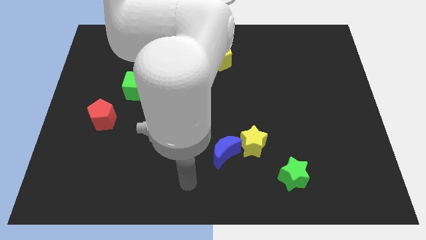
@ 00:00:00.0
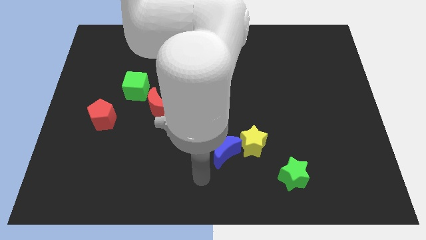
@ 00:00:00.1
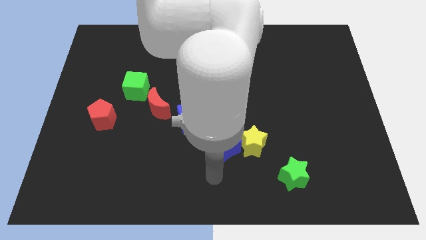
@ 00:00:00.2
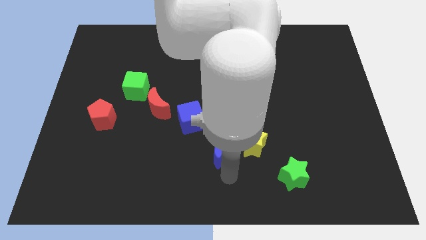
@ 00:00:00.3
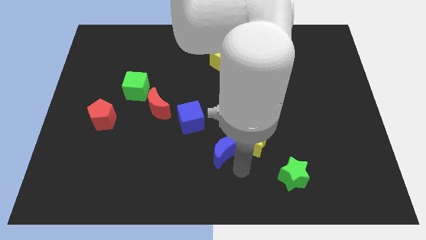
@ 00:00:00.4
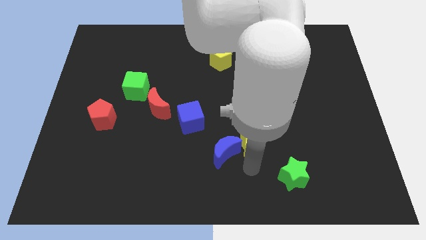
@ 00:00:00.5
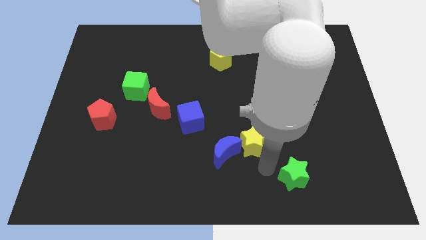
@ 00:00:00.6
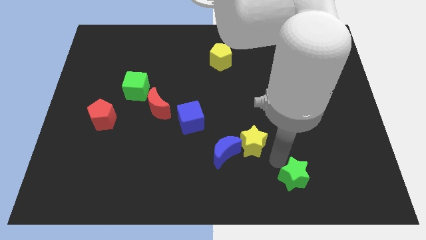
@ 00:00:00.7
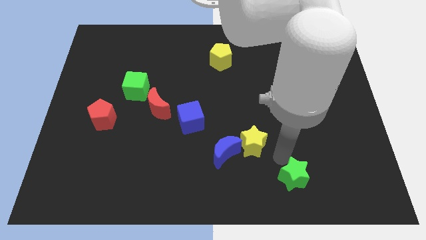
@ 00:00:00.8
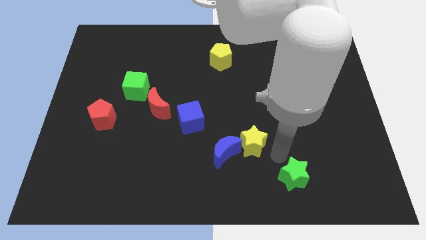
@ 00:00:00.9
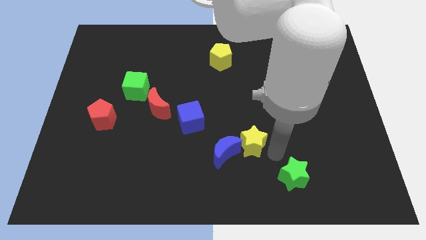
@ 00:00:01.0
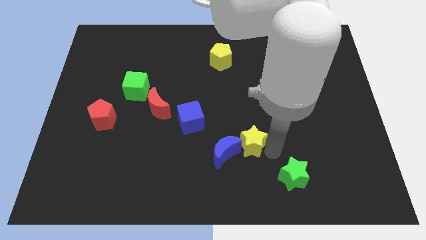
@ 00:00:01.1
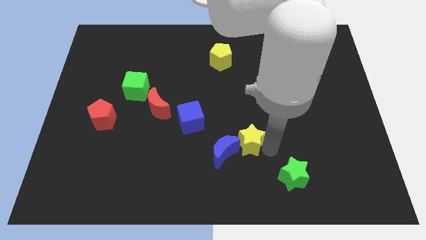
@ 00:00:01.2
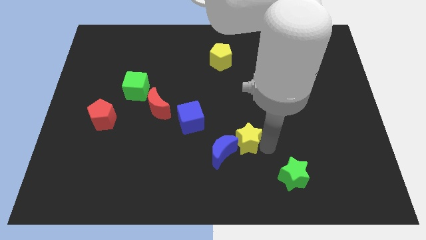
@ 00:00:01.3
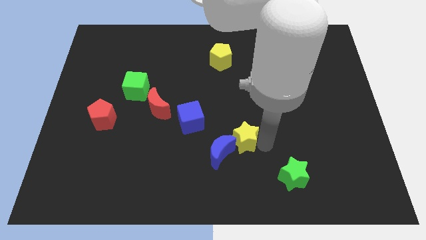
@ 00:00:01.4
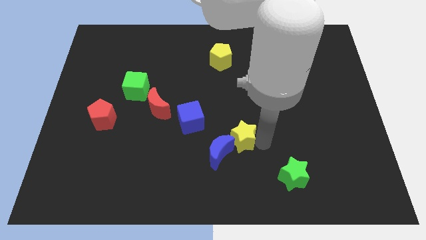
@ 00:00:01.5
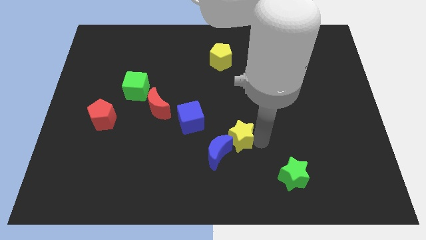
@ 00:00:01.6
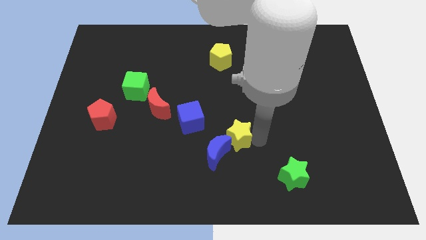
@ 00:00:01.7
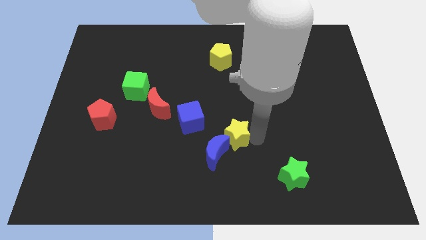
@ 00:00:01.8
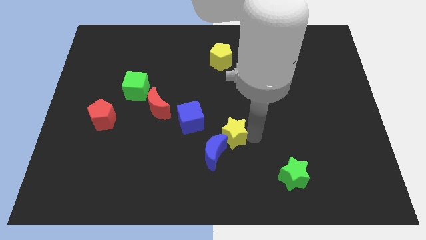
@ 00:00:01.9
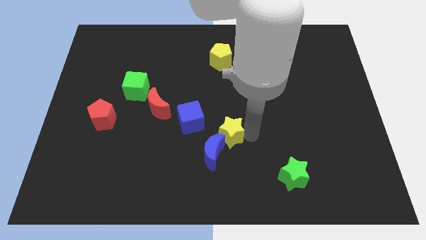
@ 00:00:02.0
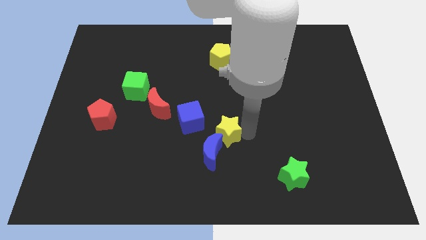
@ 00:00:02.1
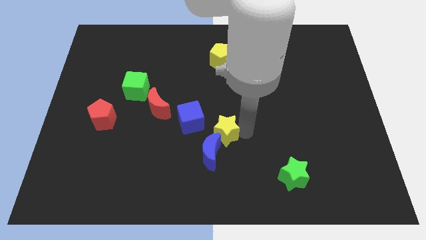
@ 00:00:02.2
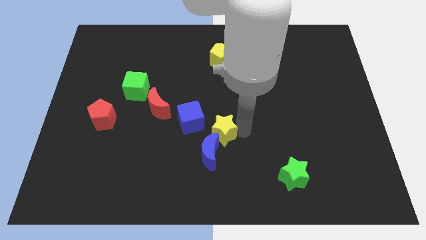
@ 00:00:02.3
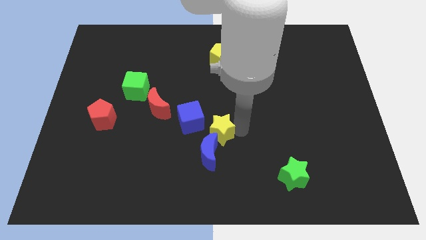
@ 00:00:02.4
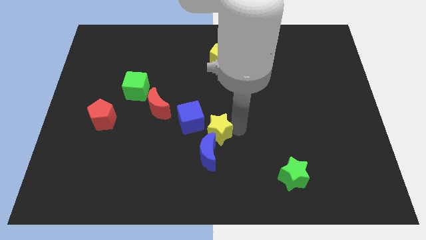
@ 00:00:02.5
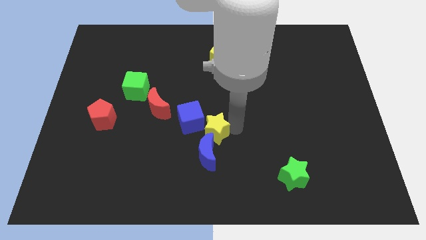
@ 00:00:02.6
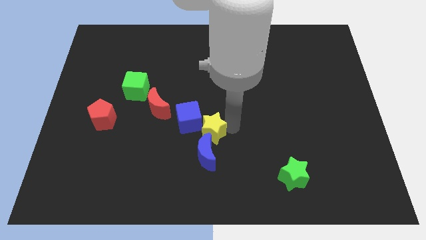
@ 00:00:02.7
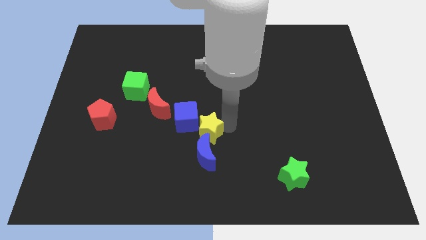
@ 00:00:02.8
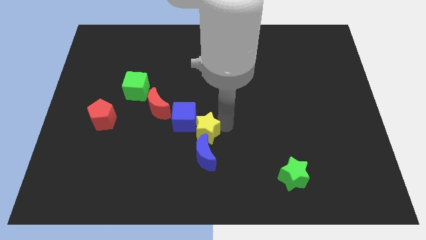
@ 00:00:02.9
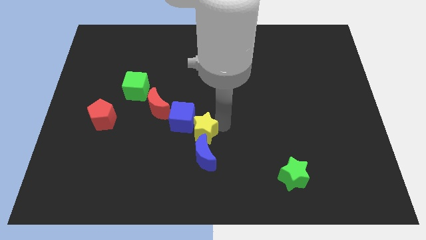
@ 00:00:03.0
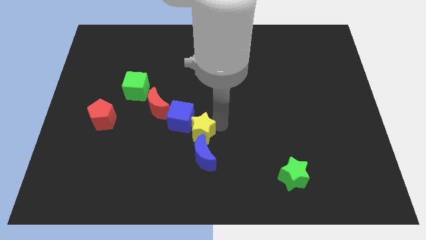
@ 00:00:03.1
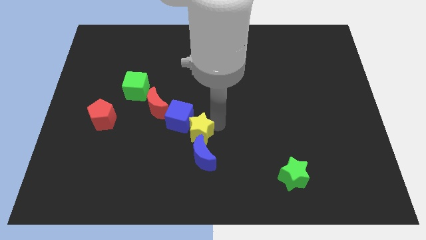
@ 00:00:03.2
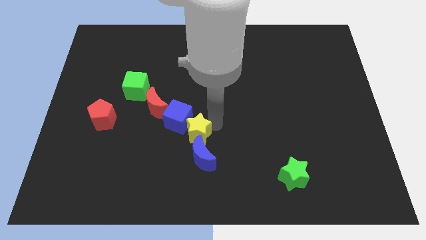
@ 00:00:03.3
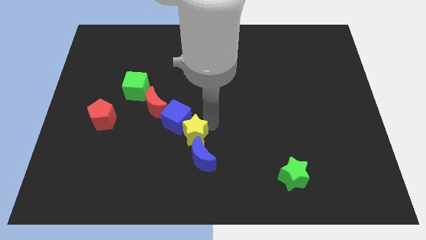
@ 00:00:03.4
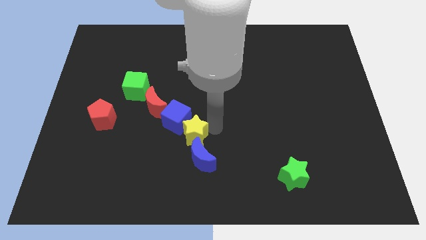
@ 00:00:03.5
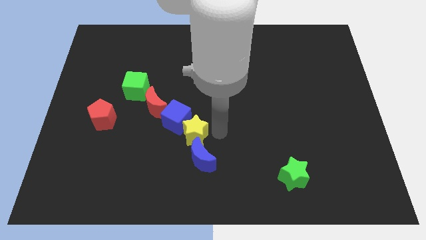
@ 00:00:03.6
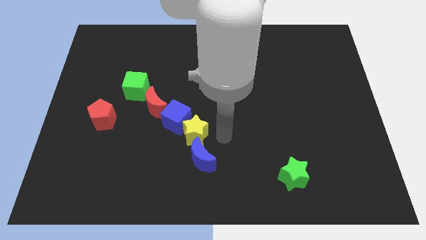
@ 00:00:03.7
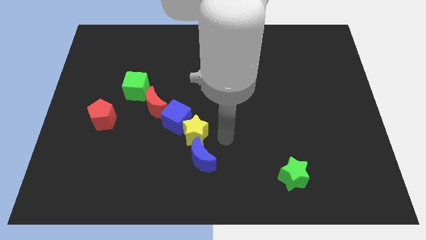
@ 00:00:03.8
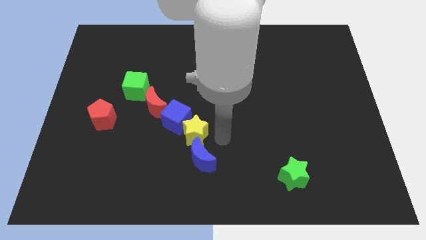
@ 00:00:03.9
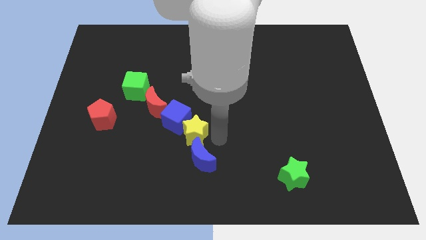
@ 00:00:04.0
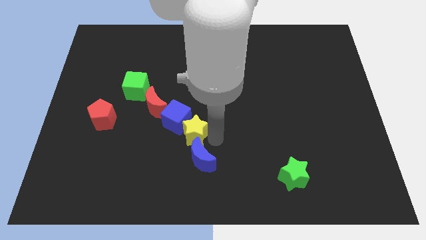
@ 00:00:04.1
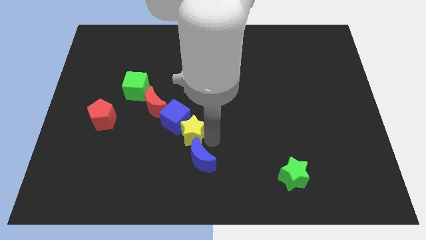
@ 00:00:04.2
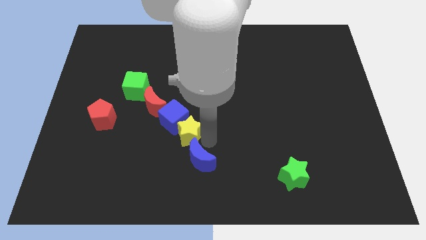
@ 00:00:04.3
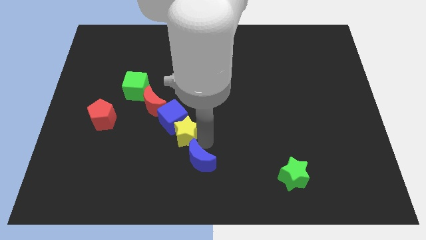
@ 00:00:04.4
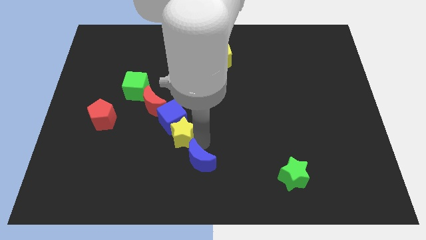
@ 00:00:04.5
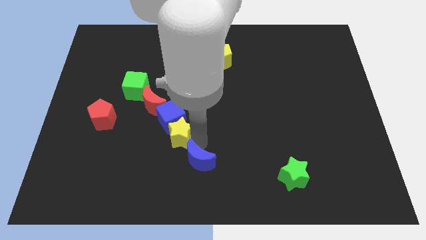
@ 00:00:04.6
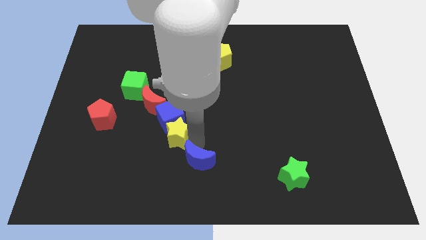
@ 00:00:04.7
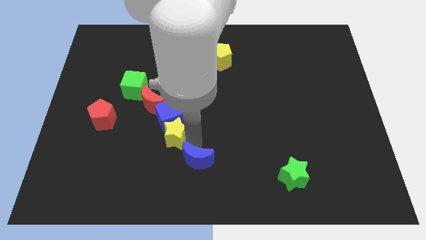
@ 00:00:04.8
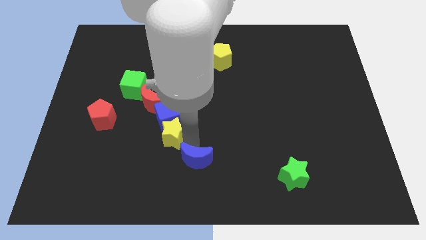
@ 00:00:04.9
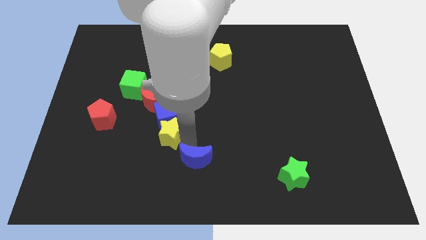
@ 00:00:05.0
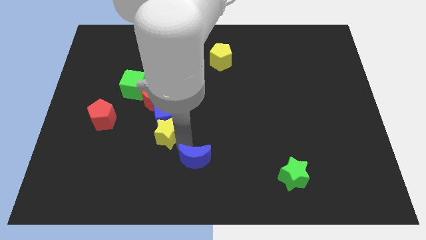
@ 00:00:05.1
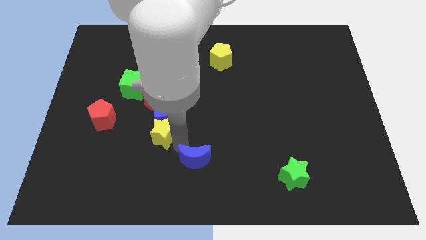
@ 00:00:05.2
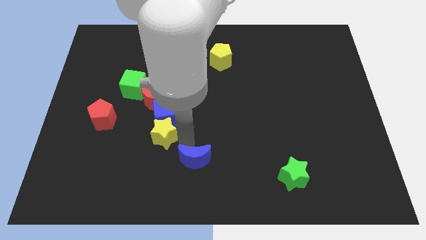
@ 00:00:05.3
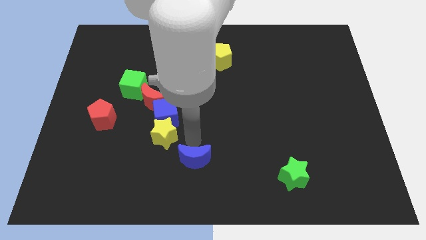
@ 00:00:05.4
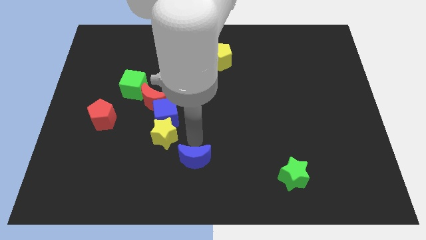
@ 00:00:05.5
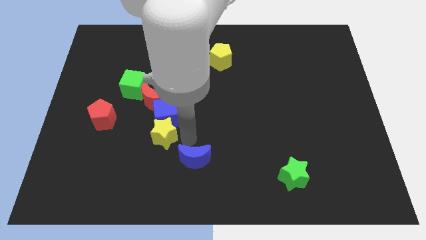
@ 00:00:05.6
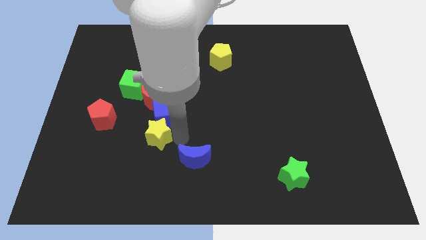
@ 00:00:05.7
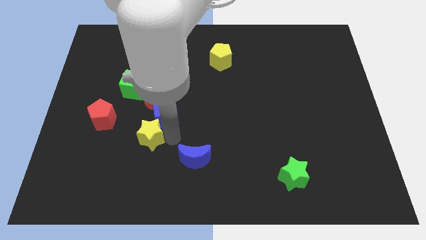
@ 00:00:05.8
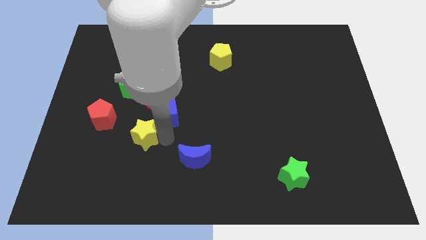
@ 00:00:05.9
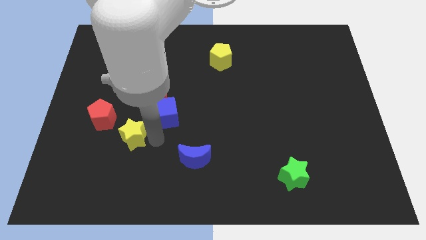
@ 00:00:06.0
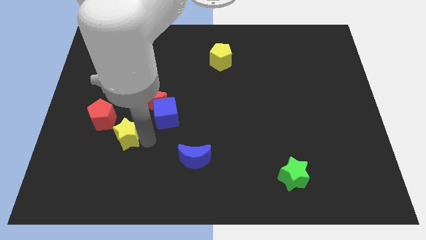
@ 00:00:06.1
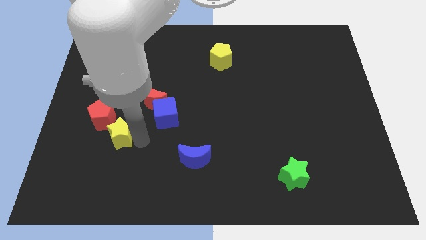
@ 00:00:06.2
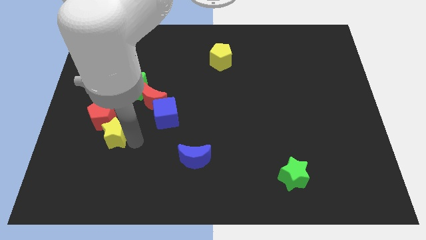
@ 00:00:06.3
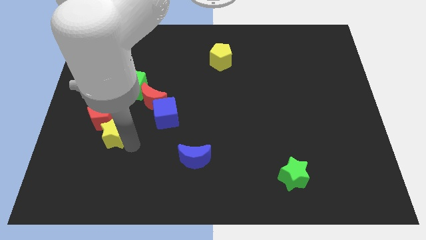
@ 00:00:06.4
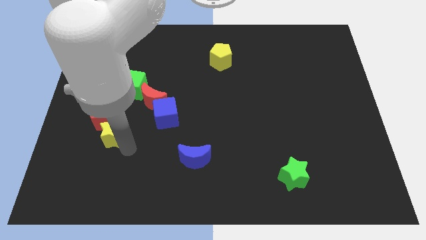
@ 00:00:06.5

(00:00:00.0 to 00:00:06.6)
move the yellow star next to the red pentagon
